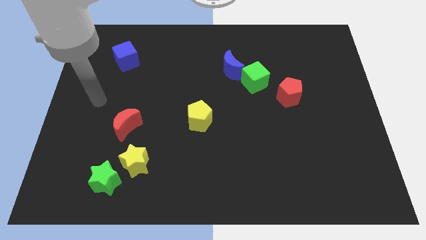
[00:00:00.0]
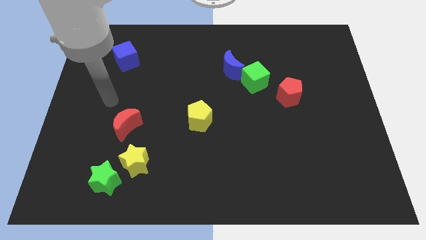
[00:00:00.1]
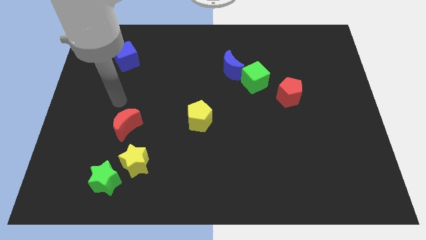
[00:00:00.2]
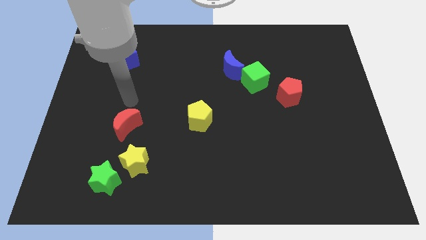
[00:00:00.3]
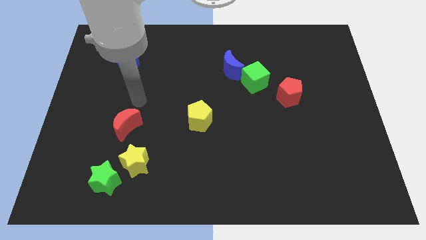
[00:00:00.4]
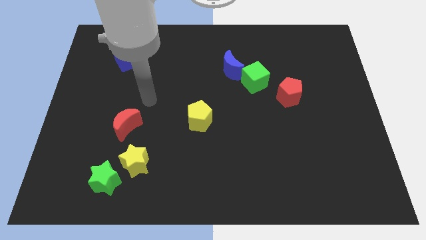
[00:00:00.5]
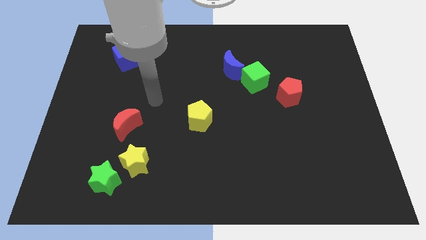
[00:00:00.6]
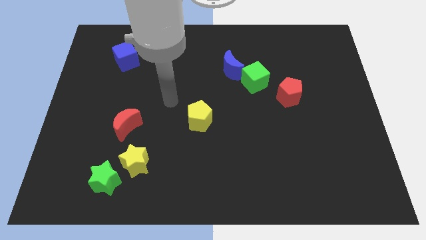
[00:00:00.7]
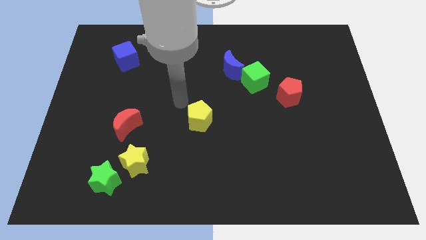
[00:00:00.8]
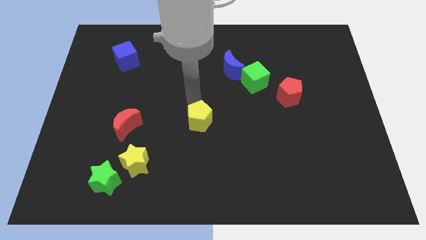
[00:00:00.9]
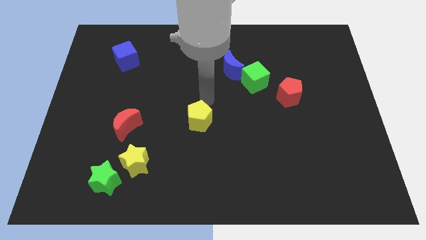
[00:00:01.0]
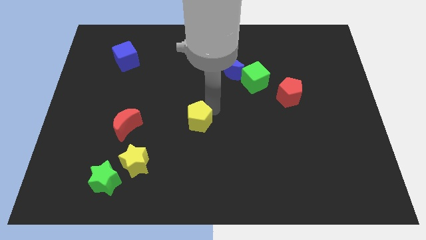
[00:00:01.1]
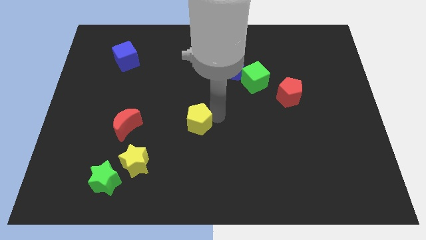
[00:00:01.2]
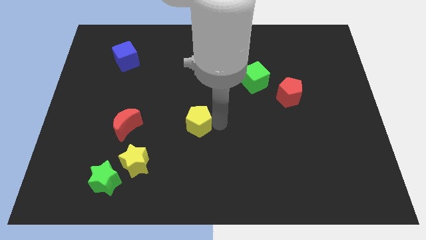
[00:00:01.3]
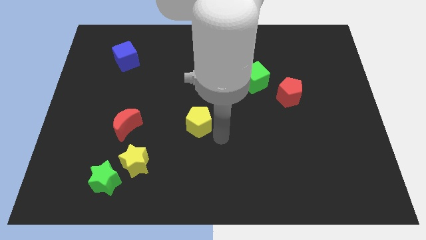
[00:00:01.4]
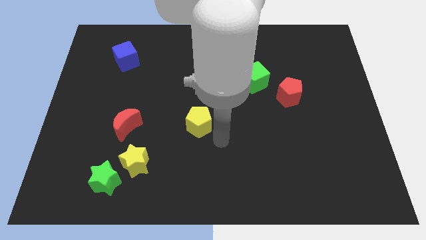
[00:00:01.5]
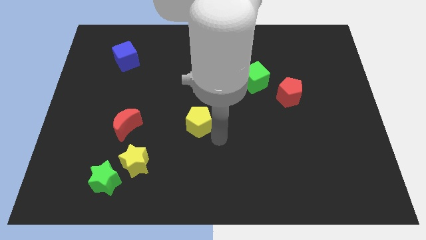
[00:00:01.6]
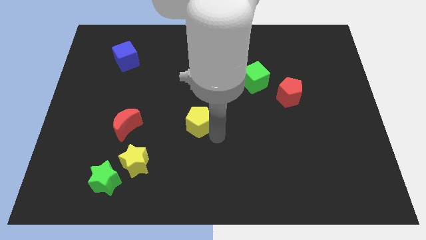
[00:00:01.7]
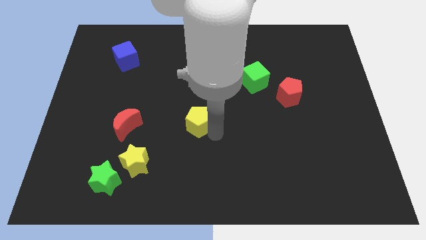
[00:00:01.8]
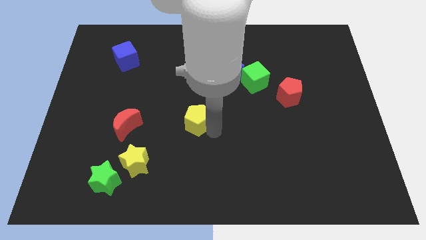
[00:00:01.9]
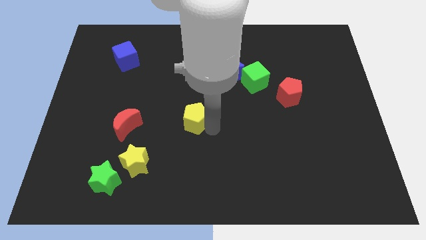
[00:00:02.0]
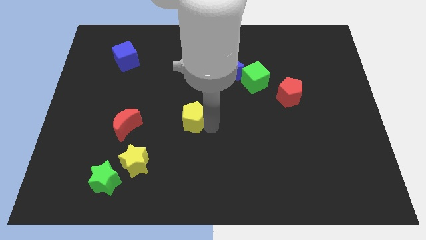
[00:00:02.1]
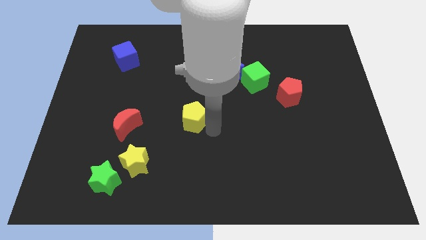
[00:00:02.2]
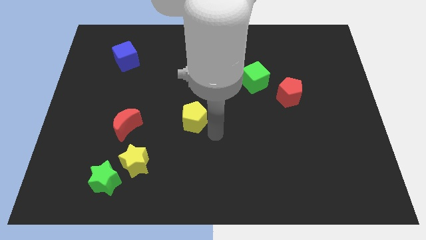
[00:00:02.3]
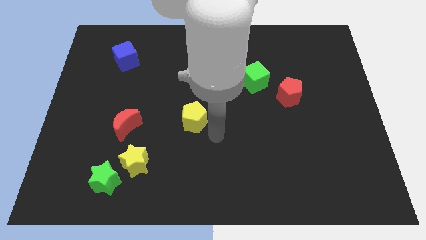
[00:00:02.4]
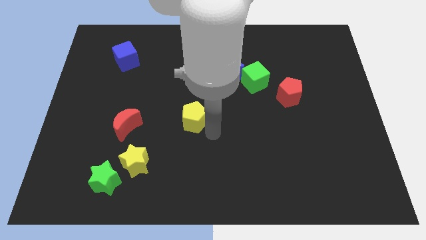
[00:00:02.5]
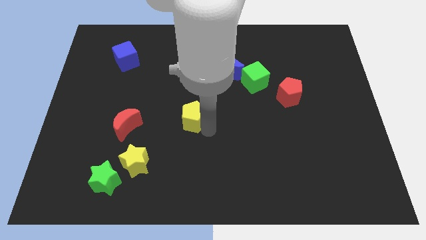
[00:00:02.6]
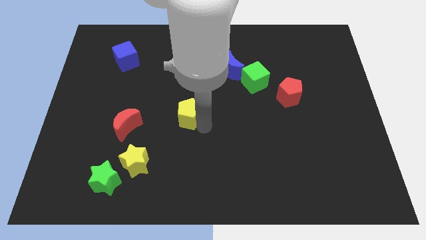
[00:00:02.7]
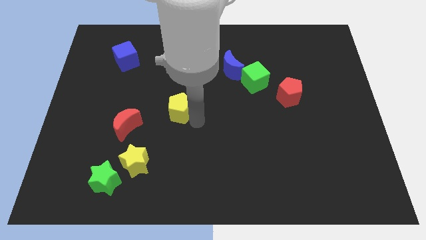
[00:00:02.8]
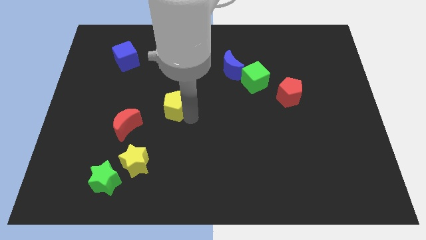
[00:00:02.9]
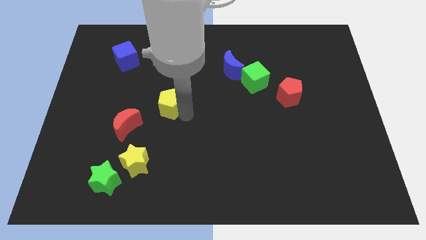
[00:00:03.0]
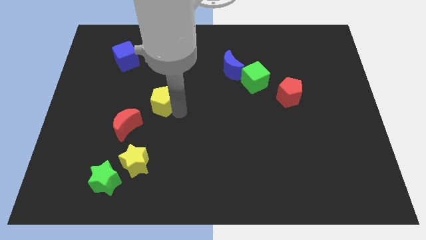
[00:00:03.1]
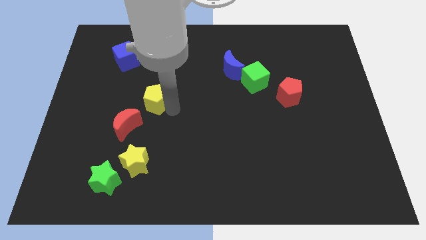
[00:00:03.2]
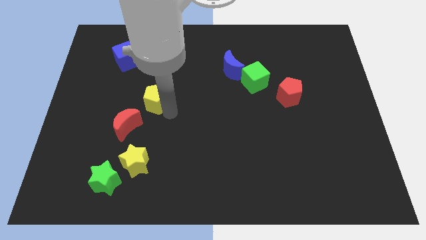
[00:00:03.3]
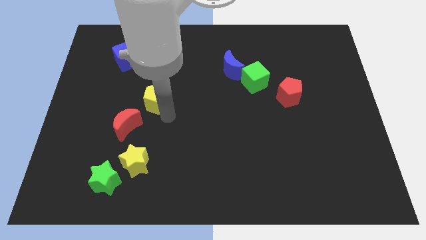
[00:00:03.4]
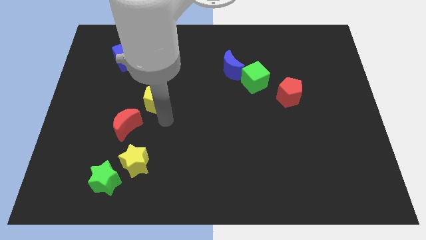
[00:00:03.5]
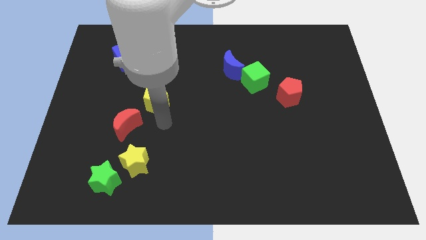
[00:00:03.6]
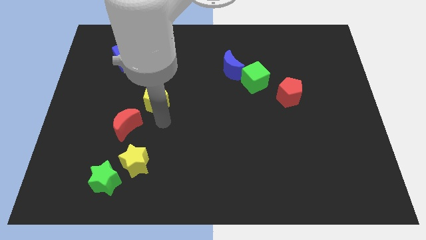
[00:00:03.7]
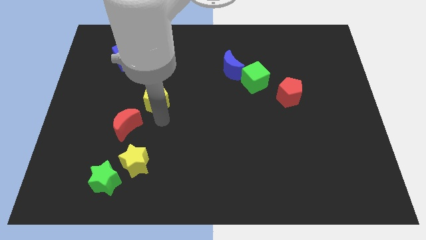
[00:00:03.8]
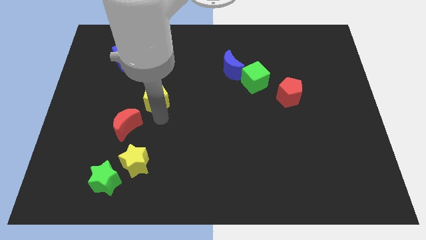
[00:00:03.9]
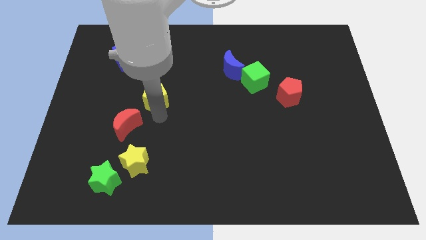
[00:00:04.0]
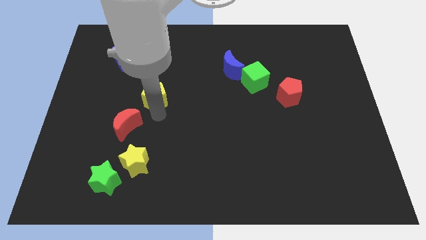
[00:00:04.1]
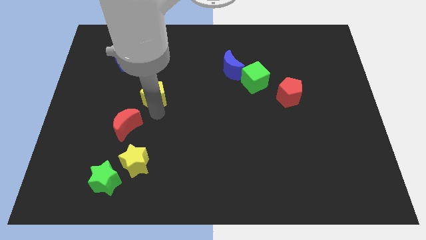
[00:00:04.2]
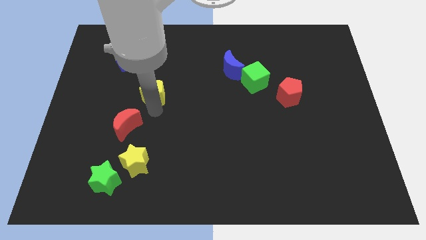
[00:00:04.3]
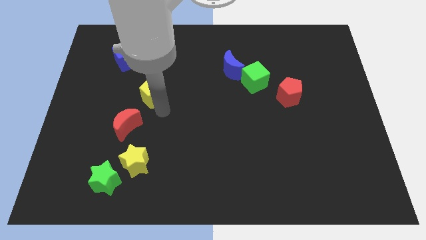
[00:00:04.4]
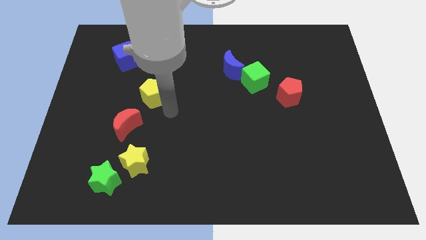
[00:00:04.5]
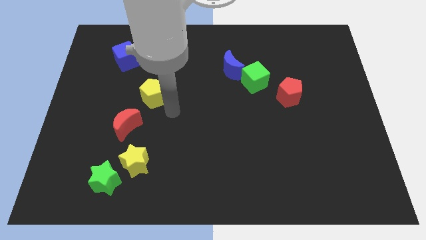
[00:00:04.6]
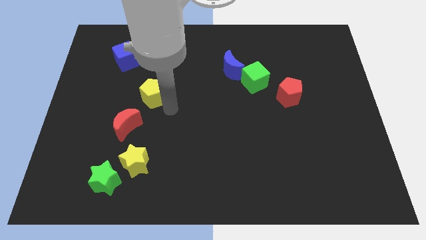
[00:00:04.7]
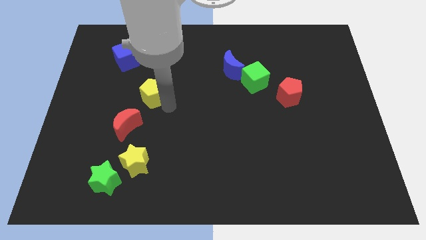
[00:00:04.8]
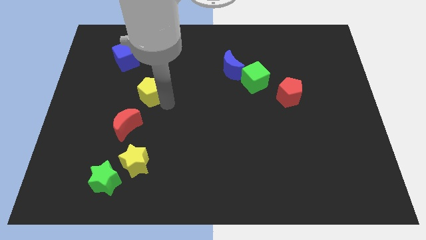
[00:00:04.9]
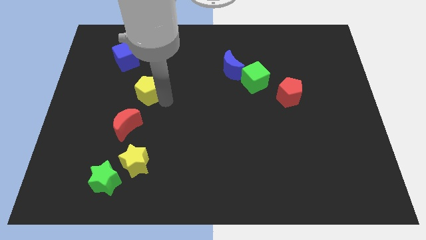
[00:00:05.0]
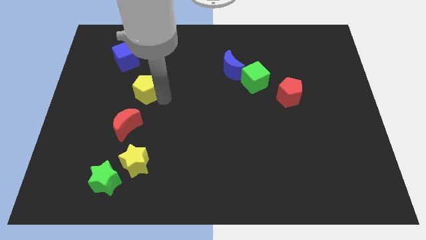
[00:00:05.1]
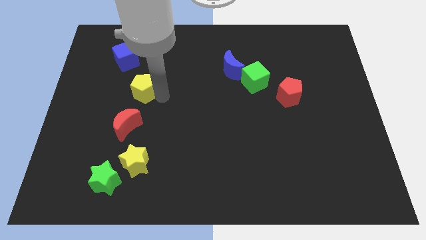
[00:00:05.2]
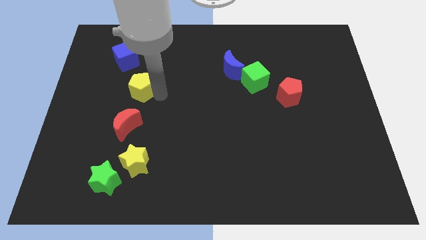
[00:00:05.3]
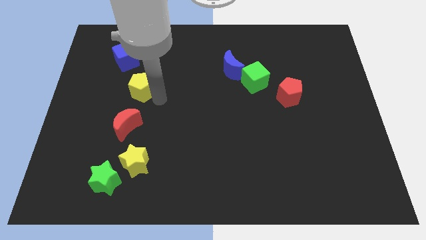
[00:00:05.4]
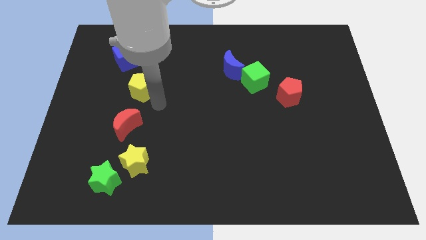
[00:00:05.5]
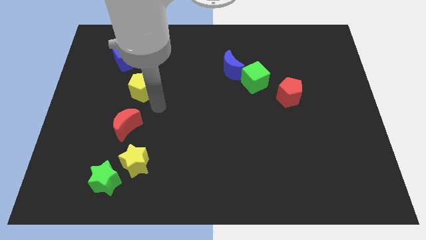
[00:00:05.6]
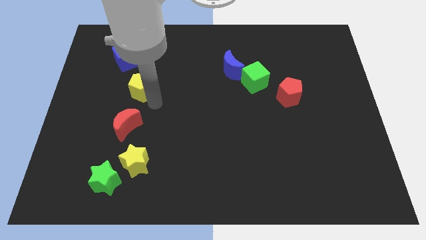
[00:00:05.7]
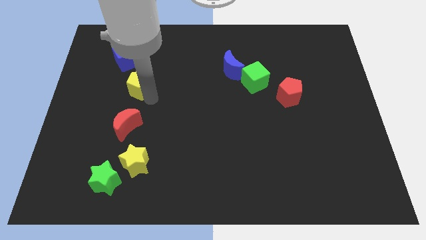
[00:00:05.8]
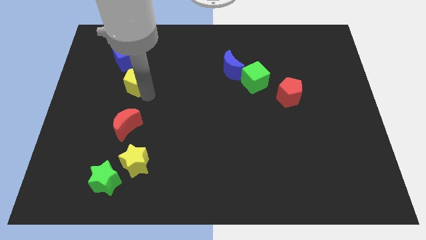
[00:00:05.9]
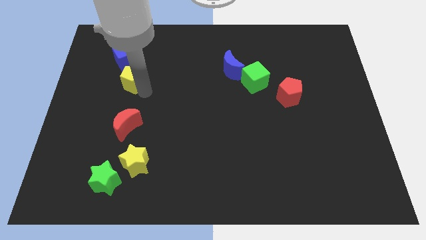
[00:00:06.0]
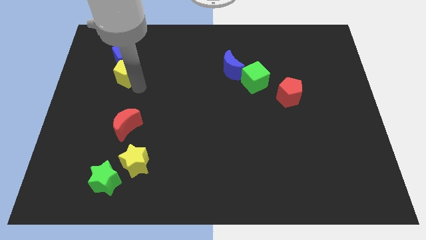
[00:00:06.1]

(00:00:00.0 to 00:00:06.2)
move the yellow pentagon towards the blue cube

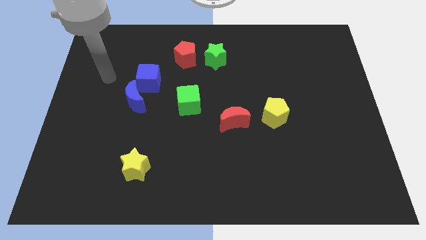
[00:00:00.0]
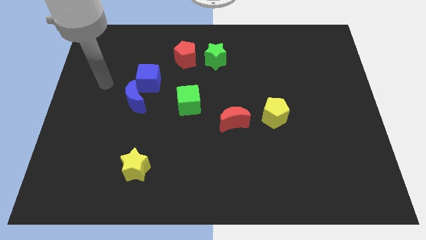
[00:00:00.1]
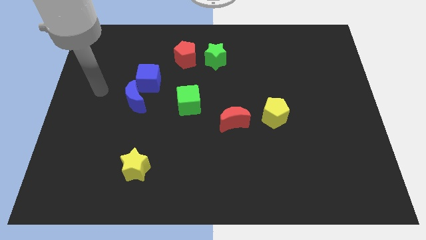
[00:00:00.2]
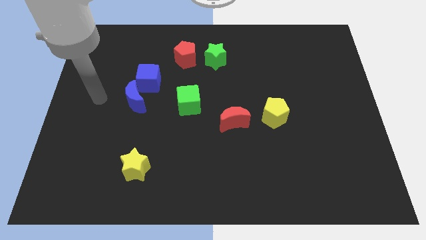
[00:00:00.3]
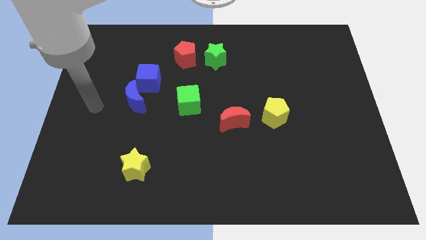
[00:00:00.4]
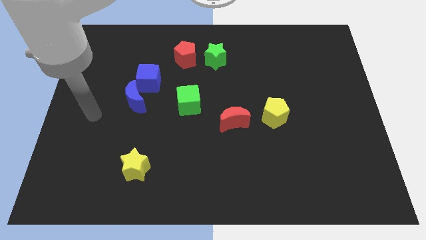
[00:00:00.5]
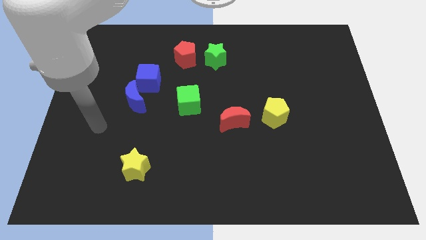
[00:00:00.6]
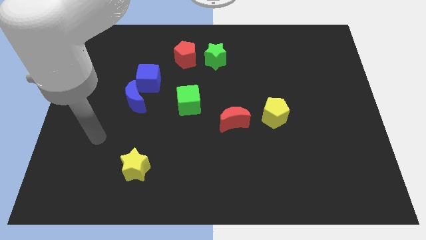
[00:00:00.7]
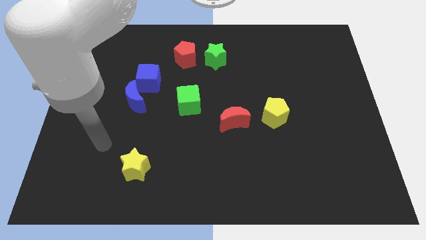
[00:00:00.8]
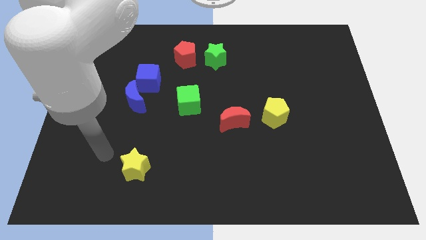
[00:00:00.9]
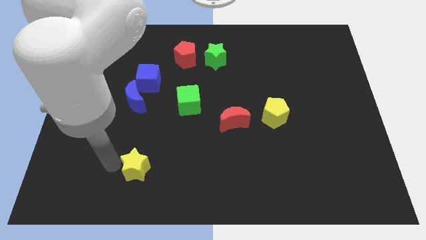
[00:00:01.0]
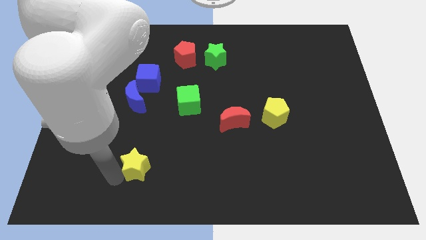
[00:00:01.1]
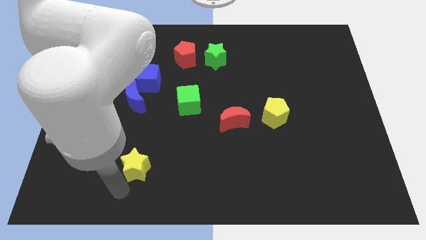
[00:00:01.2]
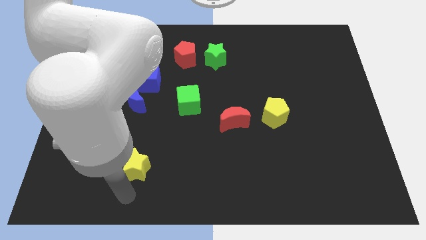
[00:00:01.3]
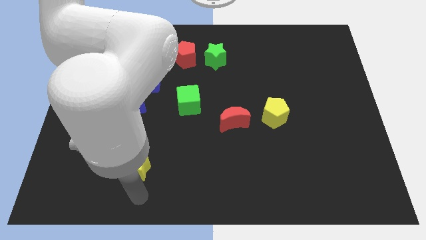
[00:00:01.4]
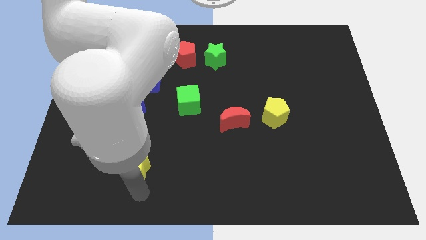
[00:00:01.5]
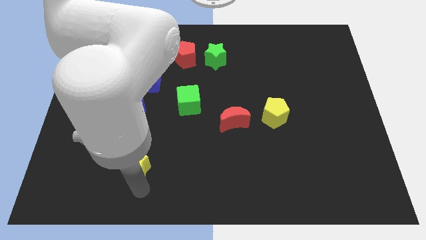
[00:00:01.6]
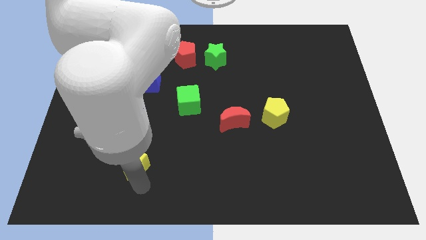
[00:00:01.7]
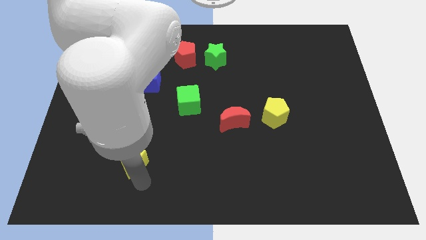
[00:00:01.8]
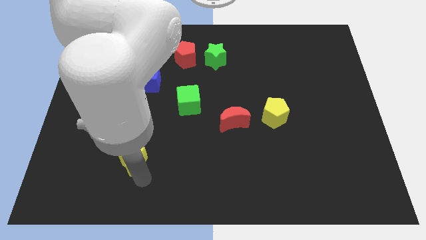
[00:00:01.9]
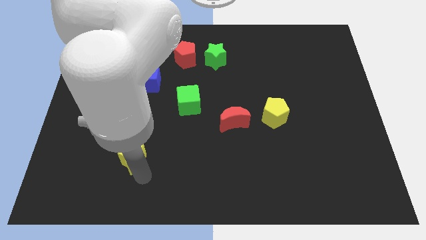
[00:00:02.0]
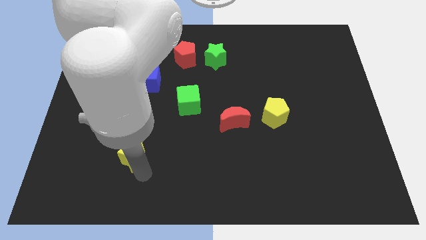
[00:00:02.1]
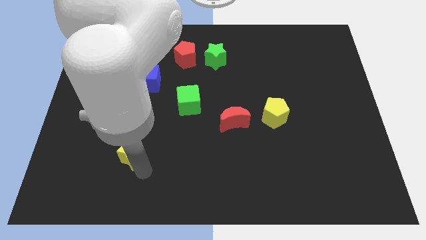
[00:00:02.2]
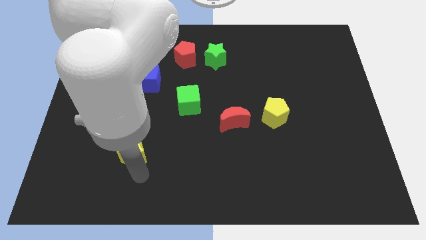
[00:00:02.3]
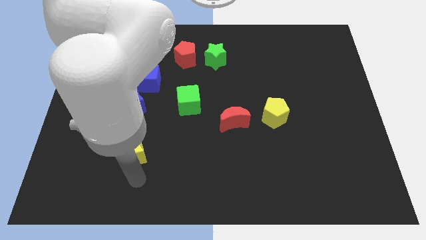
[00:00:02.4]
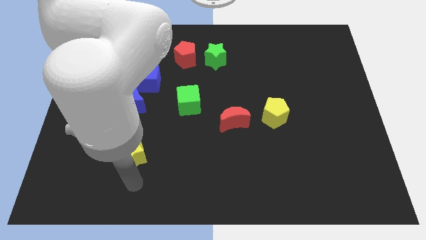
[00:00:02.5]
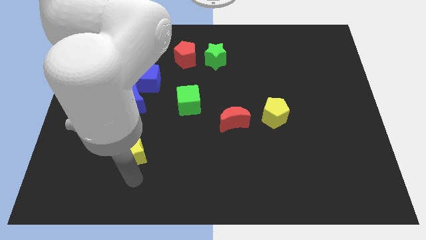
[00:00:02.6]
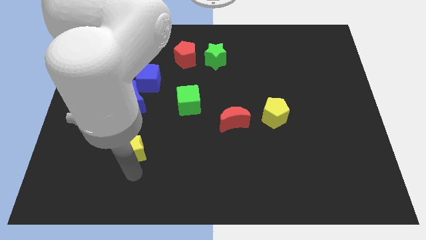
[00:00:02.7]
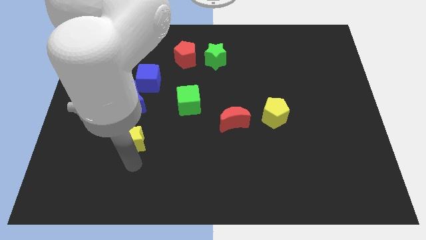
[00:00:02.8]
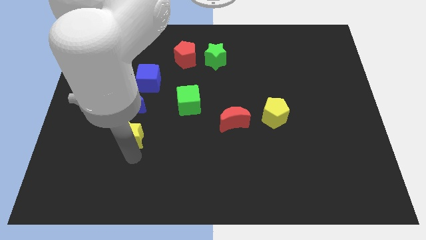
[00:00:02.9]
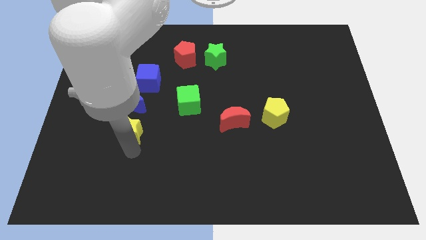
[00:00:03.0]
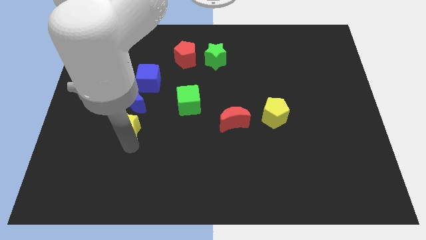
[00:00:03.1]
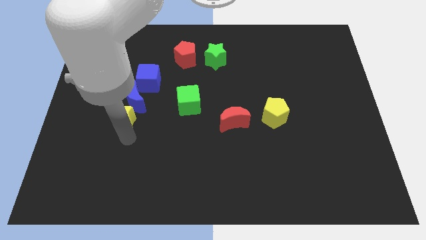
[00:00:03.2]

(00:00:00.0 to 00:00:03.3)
push the yellow star towards the blue moon
